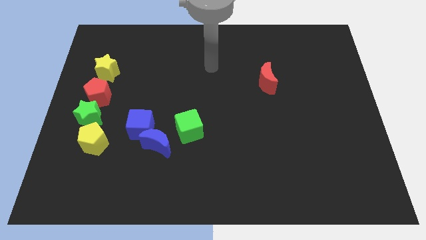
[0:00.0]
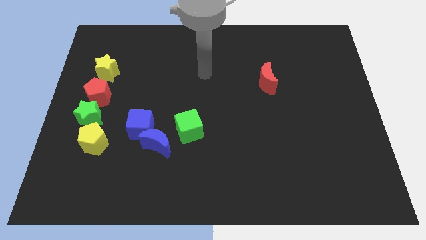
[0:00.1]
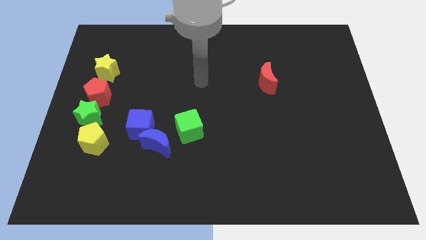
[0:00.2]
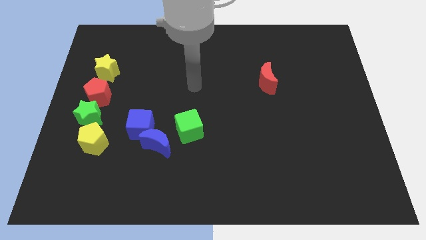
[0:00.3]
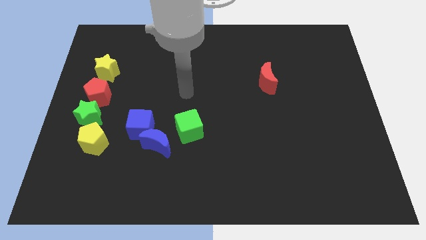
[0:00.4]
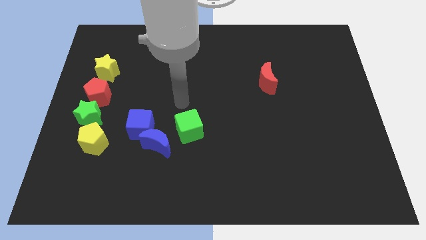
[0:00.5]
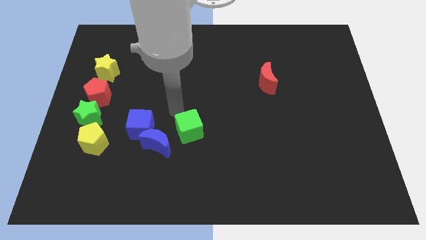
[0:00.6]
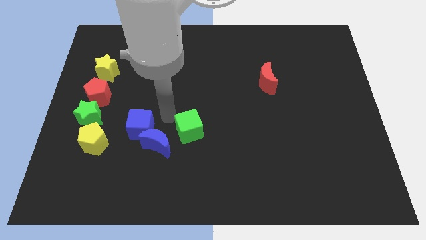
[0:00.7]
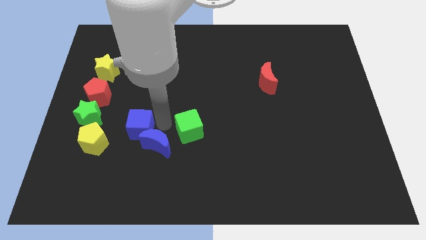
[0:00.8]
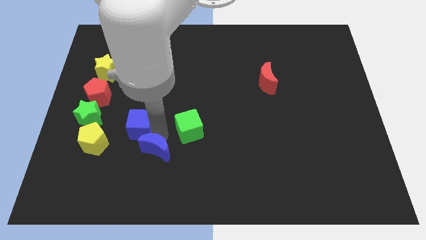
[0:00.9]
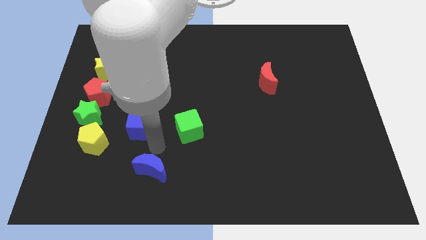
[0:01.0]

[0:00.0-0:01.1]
move the blue cube away from the blue moon

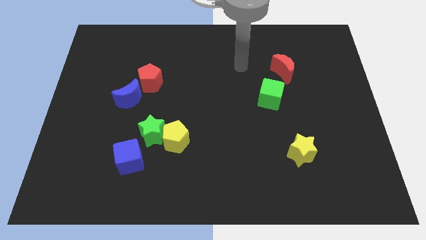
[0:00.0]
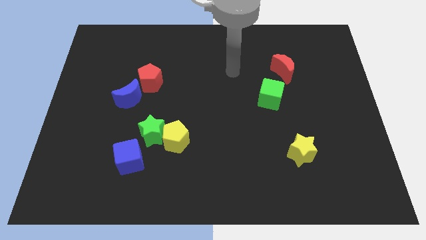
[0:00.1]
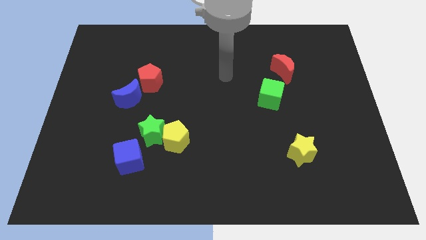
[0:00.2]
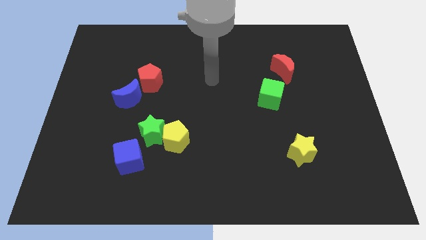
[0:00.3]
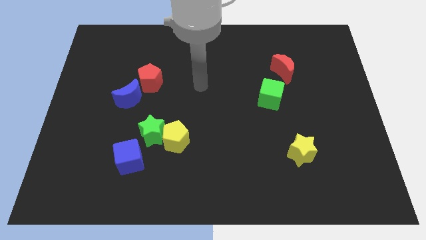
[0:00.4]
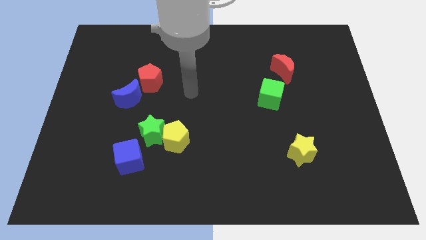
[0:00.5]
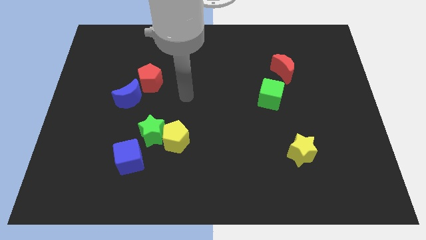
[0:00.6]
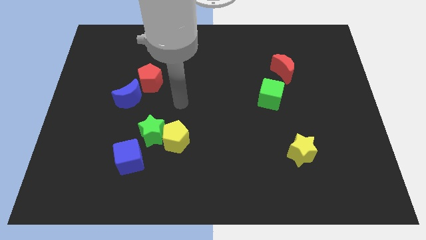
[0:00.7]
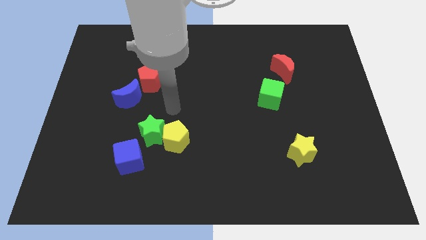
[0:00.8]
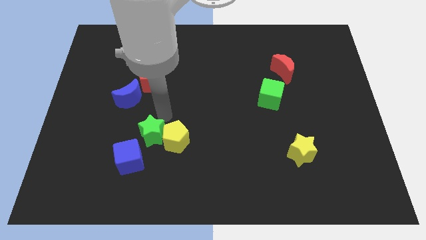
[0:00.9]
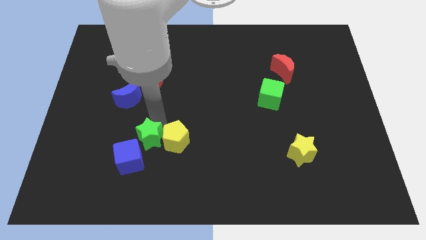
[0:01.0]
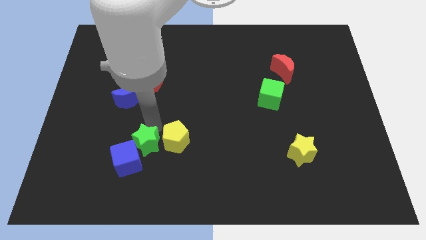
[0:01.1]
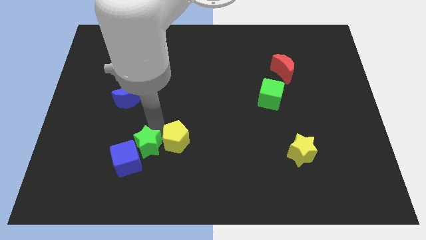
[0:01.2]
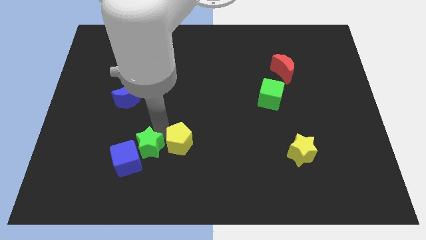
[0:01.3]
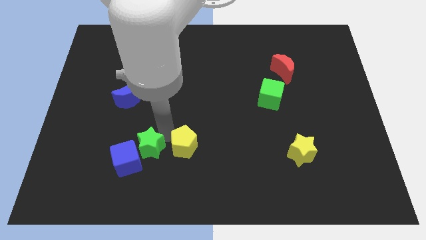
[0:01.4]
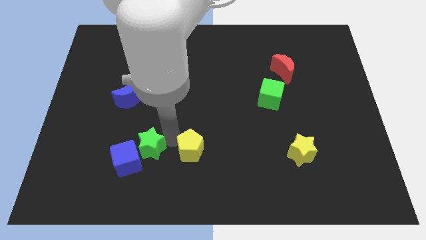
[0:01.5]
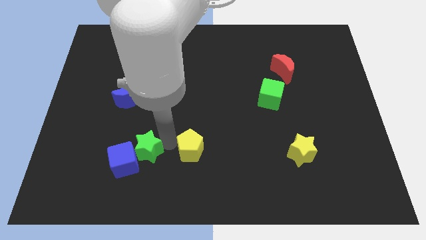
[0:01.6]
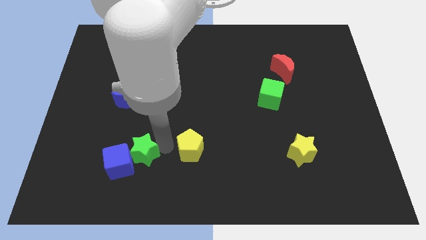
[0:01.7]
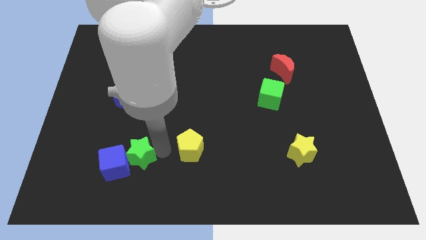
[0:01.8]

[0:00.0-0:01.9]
separate the yellow pentagon from the green star

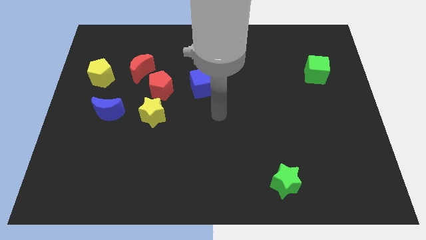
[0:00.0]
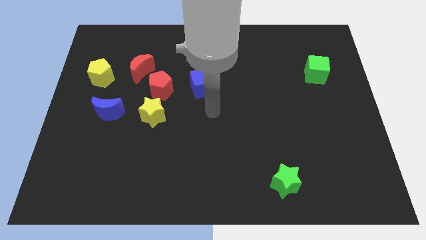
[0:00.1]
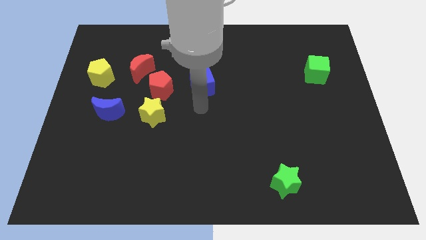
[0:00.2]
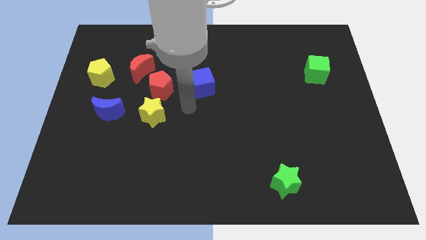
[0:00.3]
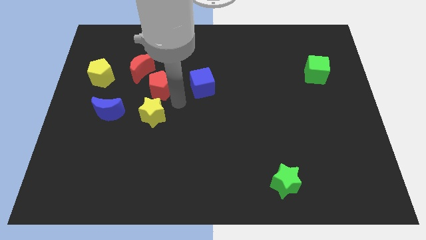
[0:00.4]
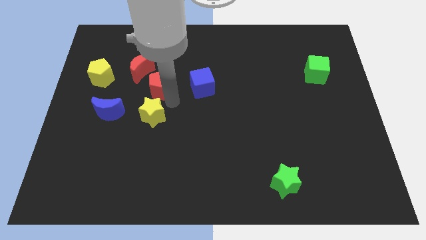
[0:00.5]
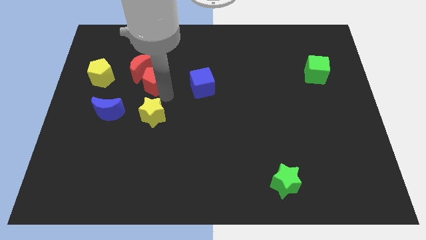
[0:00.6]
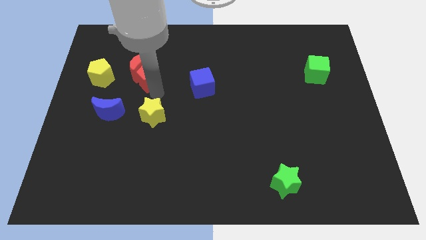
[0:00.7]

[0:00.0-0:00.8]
separate the yellow star from the red pentagon

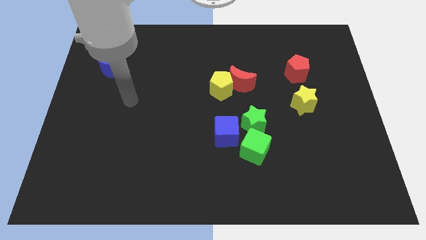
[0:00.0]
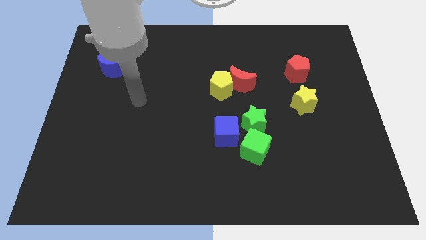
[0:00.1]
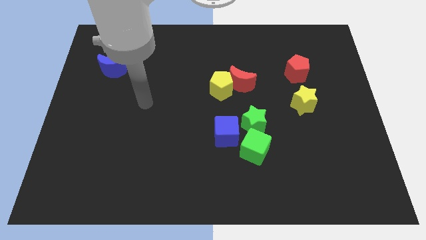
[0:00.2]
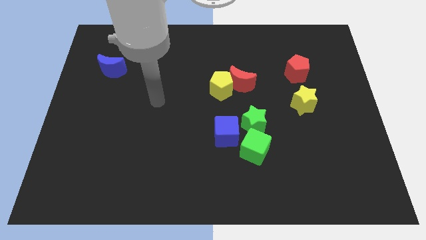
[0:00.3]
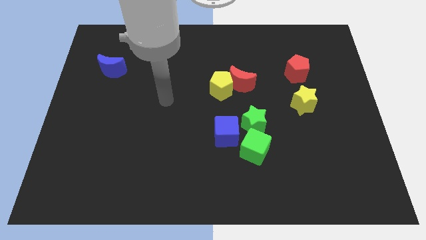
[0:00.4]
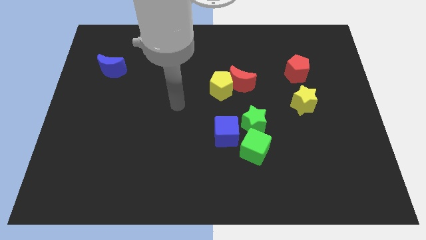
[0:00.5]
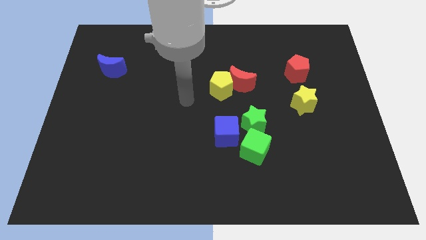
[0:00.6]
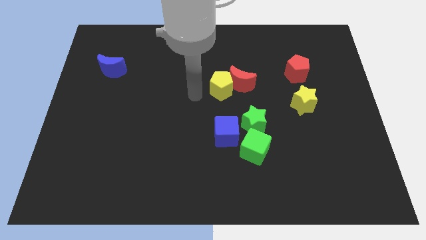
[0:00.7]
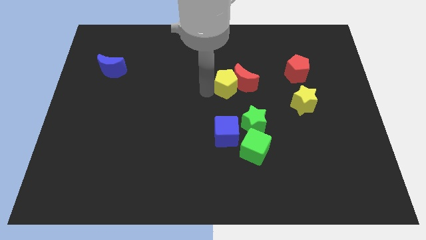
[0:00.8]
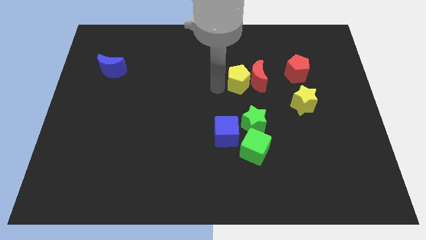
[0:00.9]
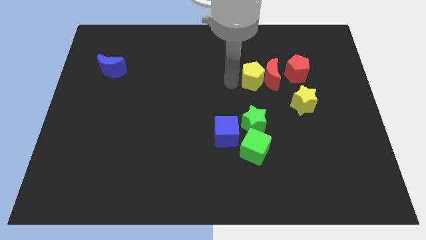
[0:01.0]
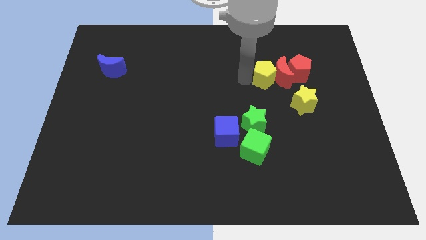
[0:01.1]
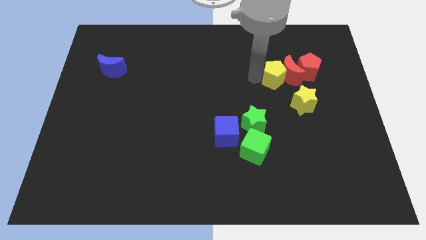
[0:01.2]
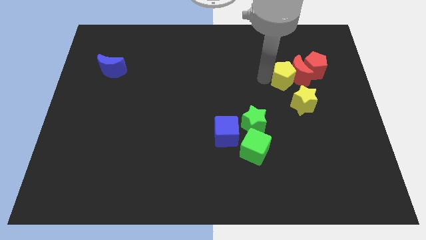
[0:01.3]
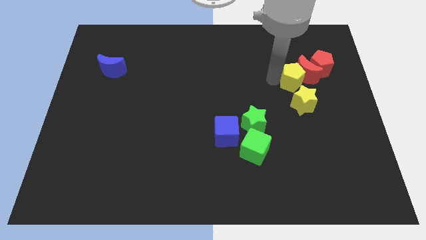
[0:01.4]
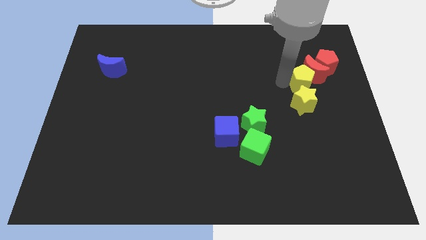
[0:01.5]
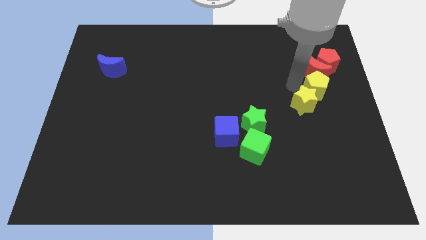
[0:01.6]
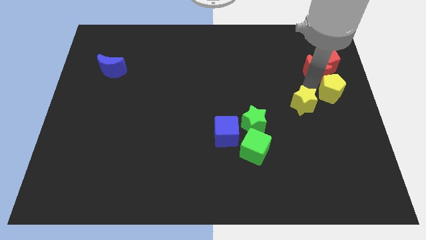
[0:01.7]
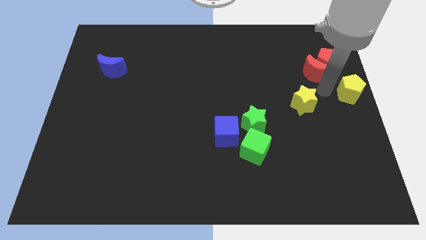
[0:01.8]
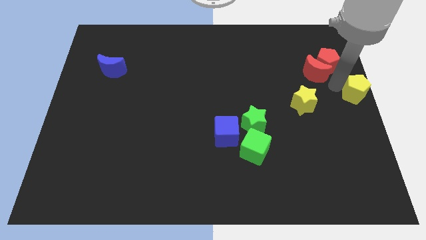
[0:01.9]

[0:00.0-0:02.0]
move the red moon away from the yellow pentagon

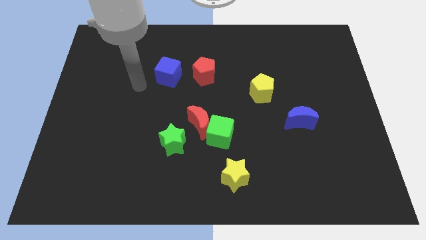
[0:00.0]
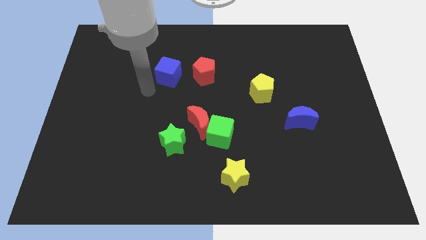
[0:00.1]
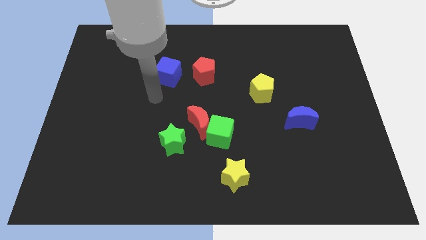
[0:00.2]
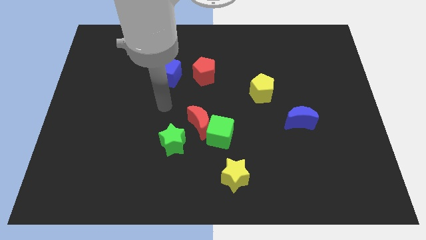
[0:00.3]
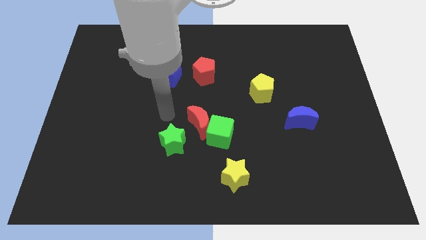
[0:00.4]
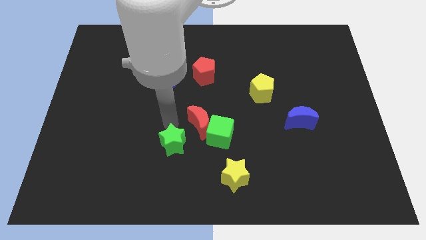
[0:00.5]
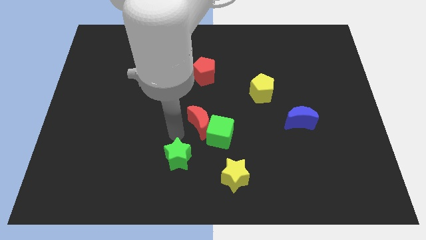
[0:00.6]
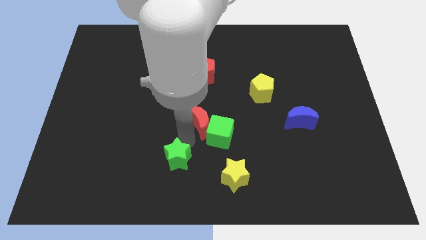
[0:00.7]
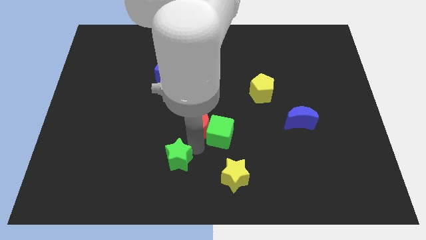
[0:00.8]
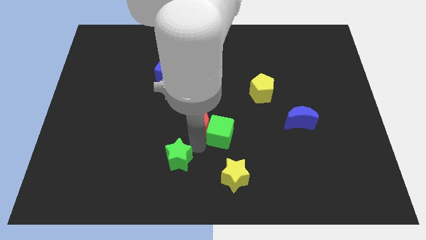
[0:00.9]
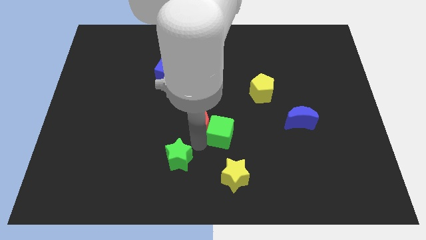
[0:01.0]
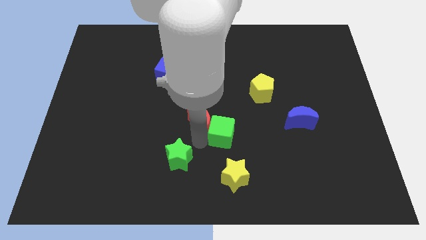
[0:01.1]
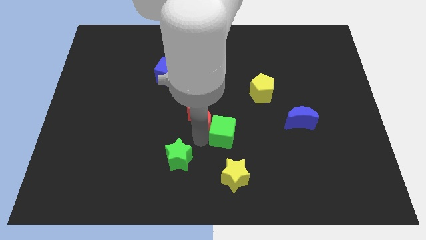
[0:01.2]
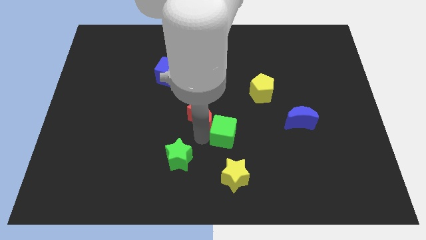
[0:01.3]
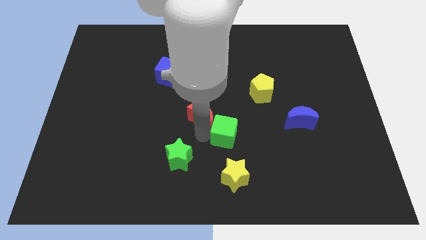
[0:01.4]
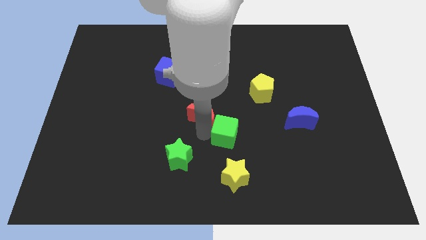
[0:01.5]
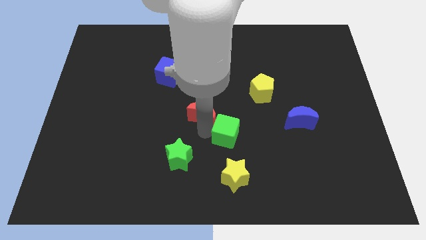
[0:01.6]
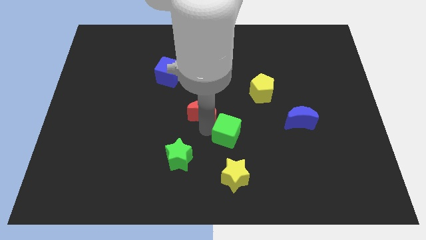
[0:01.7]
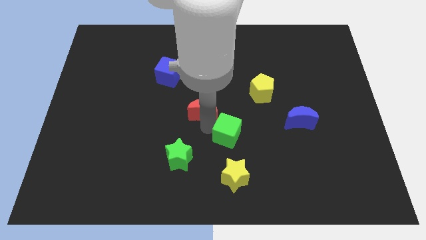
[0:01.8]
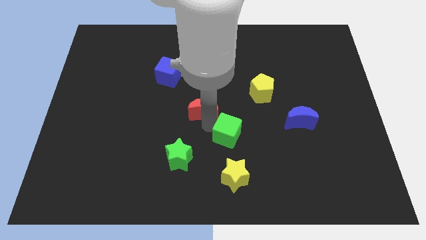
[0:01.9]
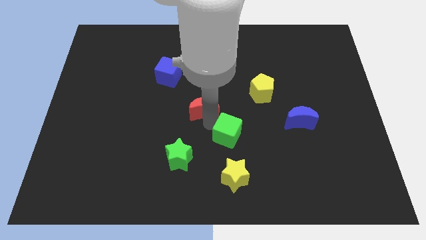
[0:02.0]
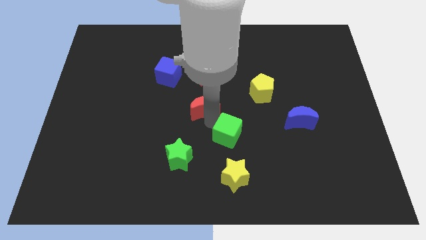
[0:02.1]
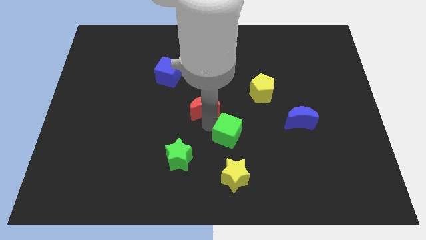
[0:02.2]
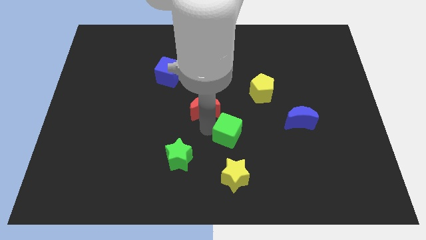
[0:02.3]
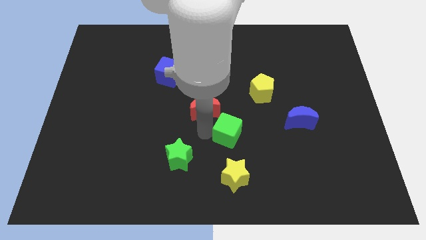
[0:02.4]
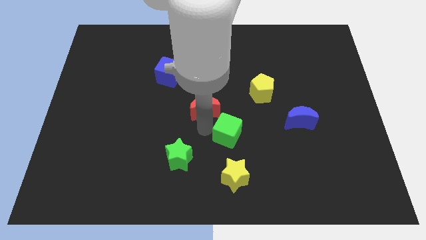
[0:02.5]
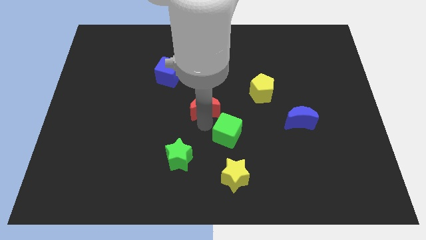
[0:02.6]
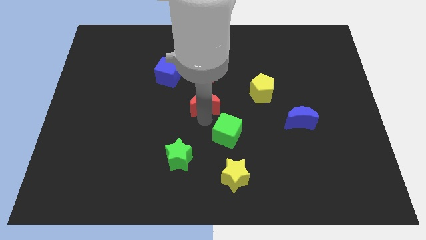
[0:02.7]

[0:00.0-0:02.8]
separate the red moon from the green cube and green star

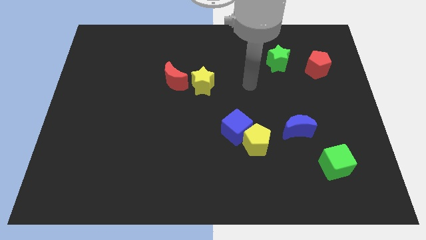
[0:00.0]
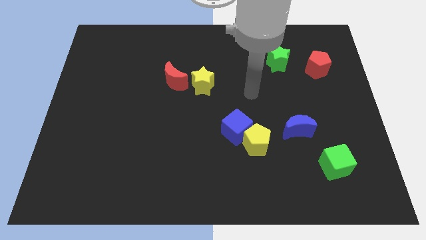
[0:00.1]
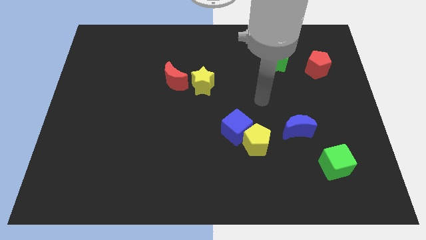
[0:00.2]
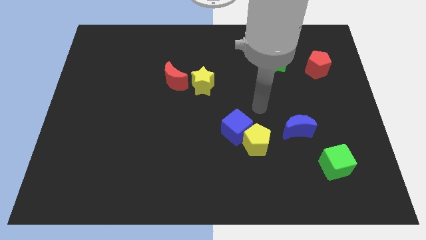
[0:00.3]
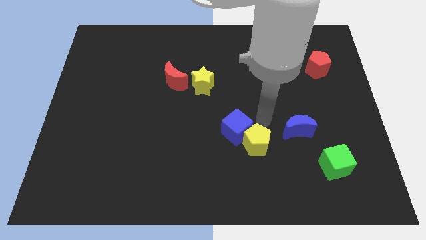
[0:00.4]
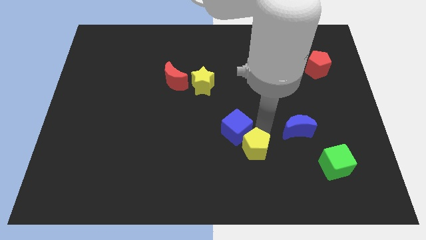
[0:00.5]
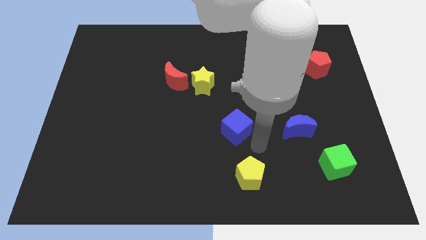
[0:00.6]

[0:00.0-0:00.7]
move the blue cube away from the yellow pentagon
